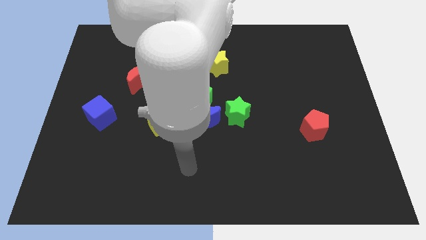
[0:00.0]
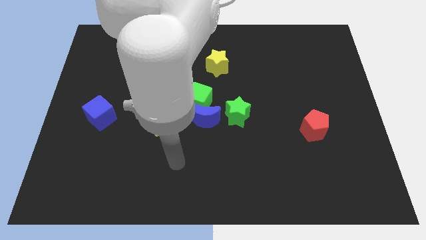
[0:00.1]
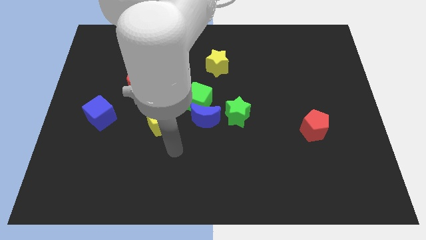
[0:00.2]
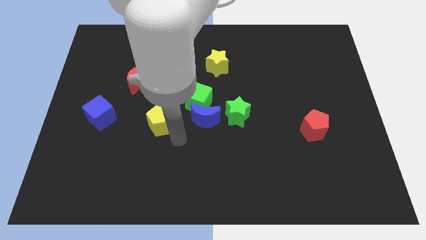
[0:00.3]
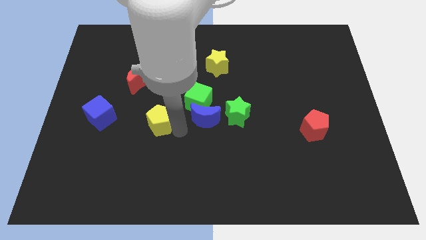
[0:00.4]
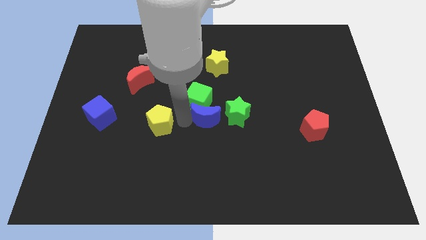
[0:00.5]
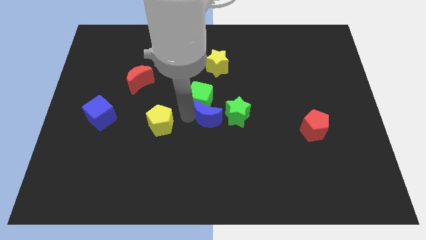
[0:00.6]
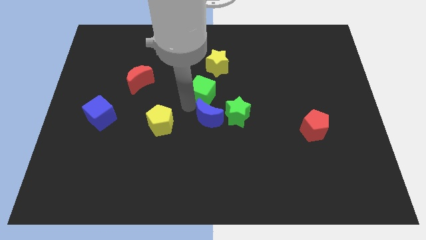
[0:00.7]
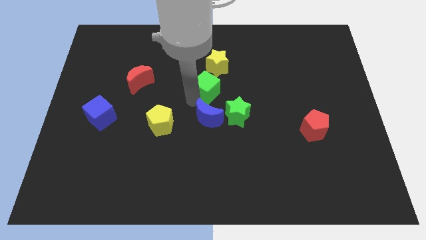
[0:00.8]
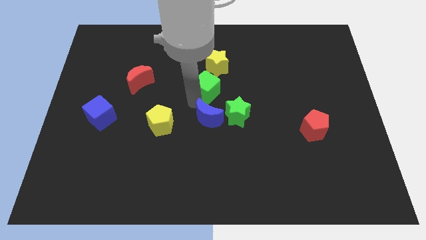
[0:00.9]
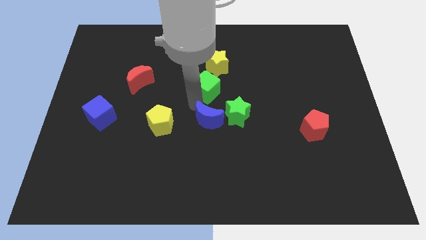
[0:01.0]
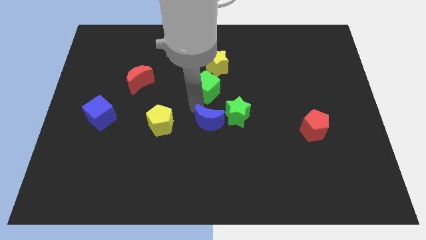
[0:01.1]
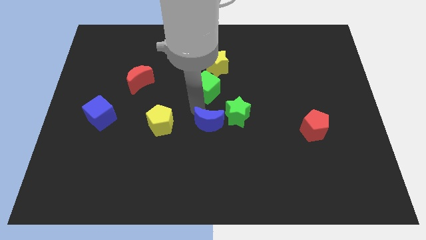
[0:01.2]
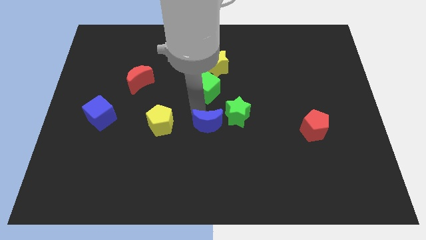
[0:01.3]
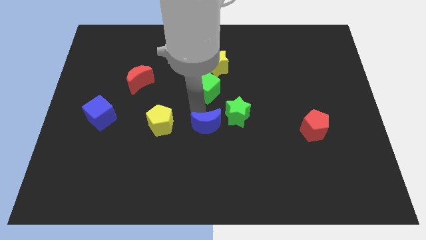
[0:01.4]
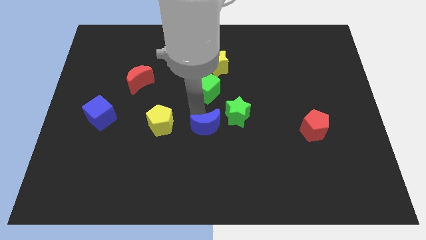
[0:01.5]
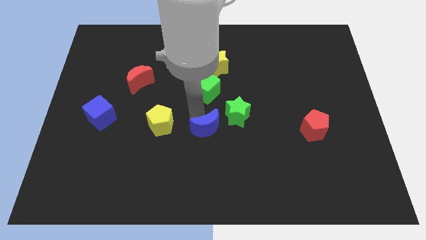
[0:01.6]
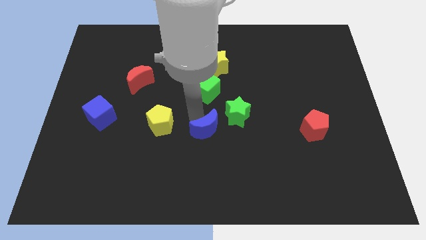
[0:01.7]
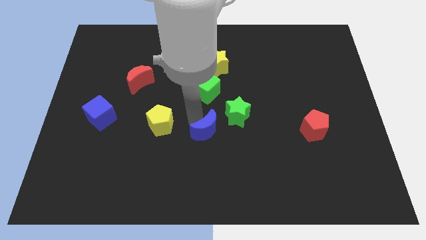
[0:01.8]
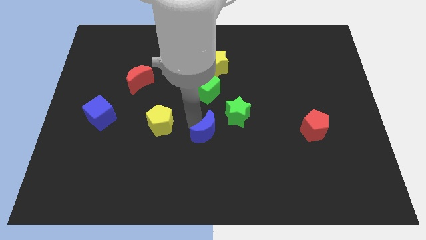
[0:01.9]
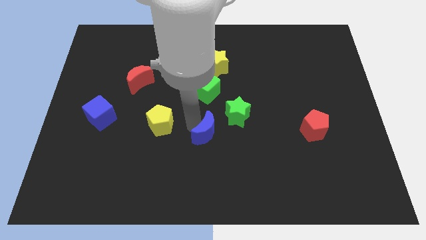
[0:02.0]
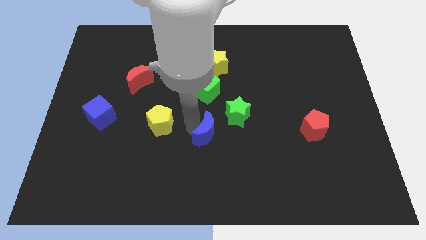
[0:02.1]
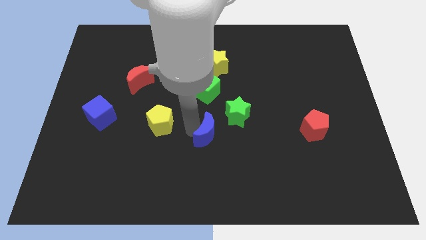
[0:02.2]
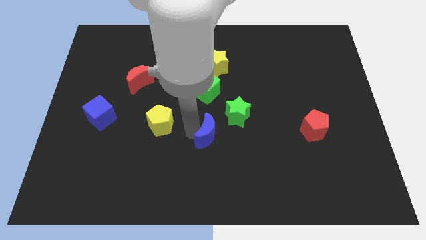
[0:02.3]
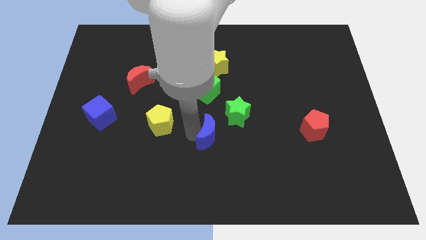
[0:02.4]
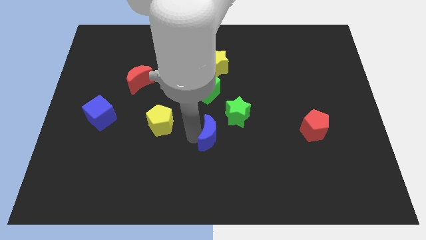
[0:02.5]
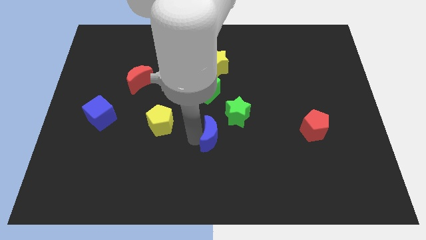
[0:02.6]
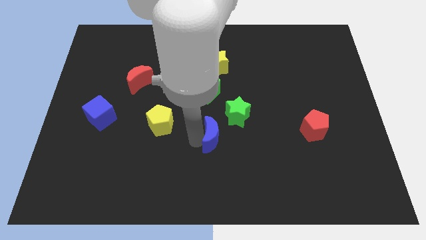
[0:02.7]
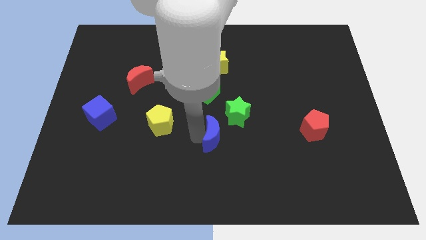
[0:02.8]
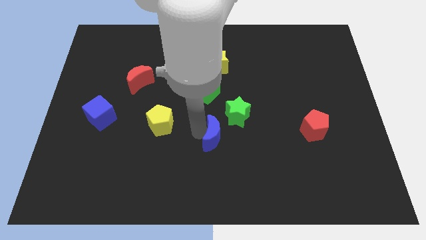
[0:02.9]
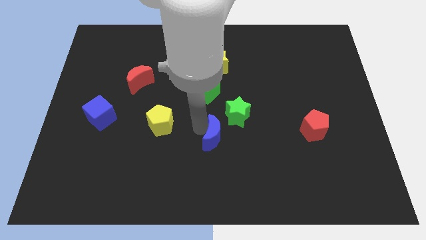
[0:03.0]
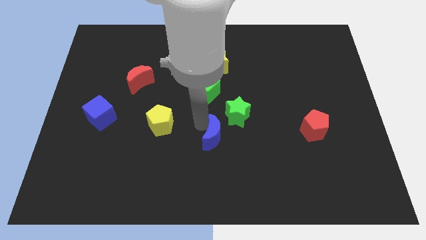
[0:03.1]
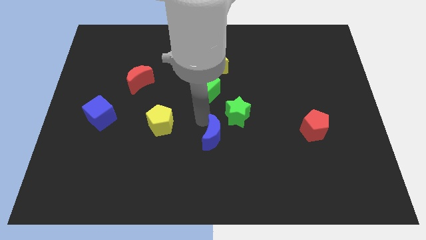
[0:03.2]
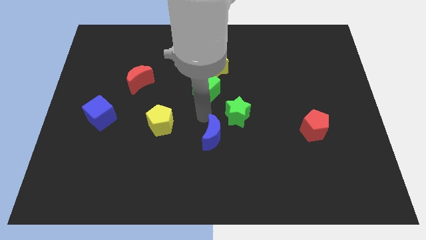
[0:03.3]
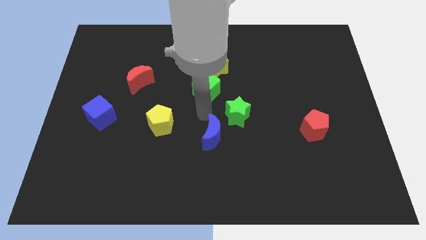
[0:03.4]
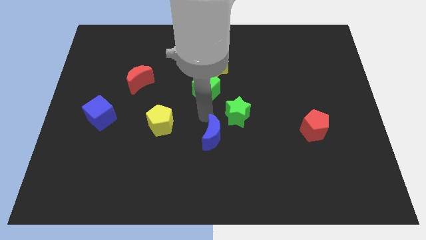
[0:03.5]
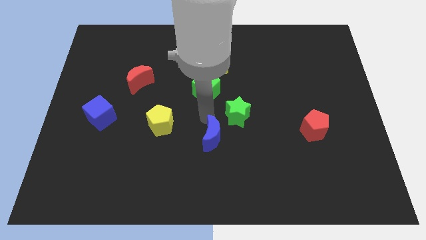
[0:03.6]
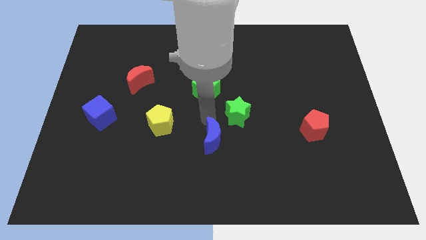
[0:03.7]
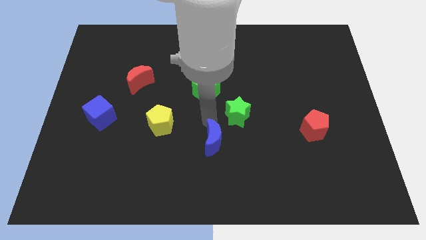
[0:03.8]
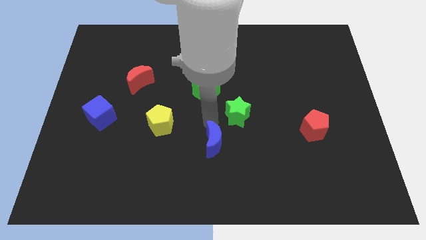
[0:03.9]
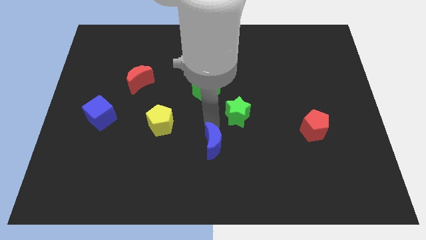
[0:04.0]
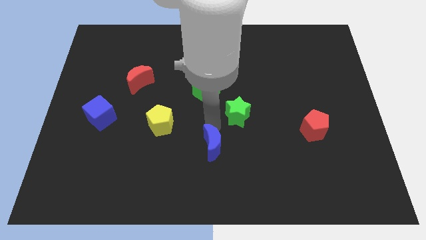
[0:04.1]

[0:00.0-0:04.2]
pull the blue moon apart from the group

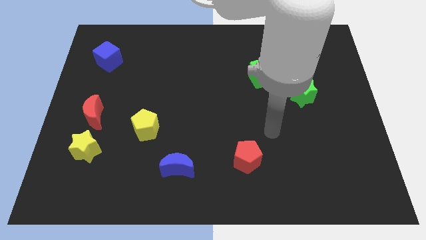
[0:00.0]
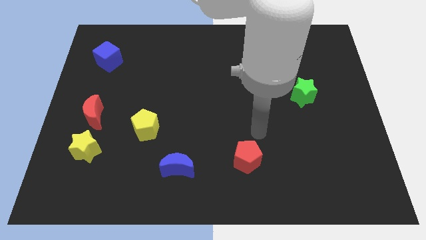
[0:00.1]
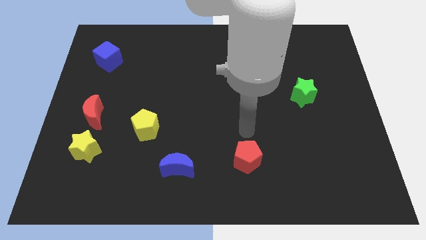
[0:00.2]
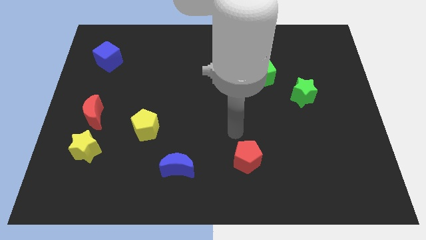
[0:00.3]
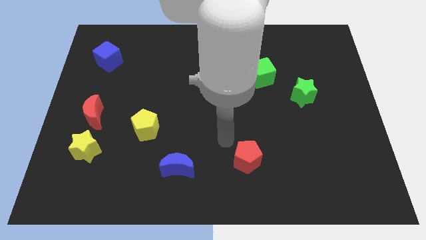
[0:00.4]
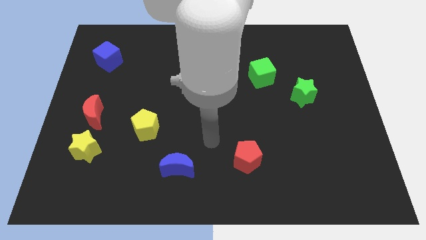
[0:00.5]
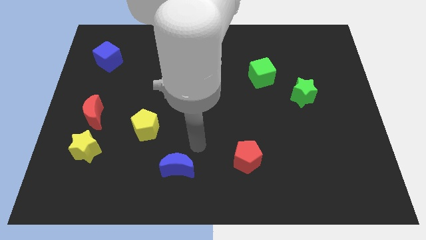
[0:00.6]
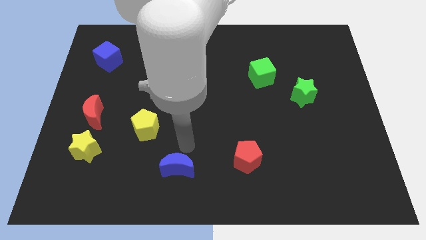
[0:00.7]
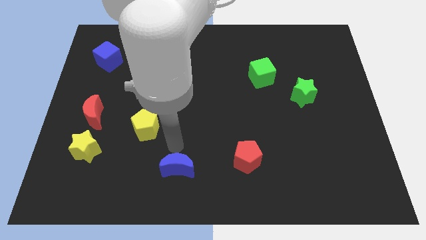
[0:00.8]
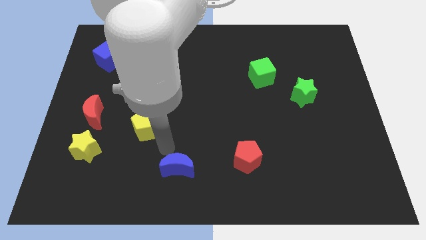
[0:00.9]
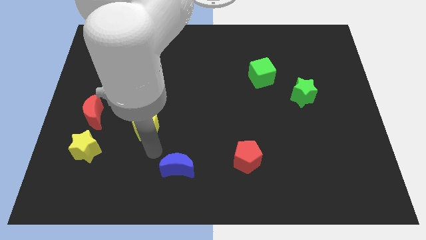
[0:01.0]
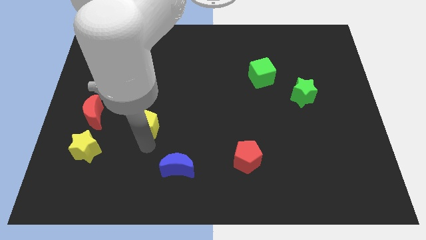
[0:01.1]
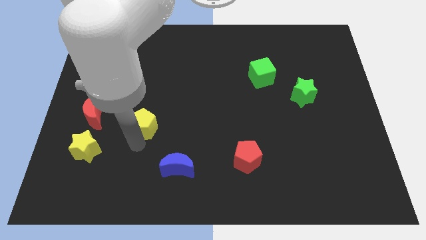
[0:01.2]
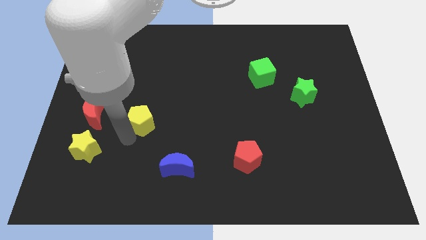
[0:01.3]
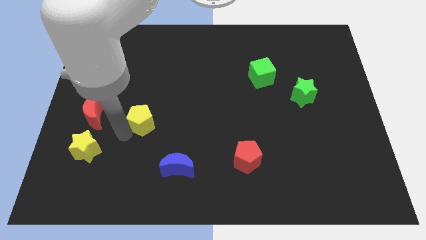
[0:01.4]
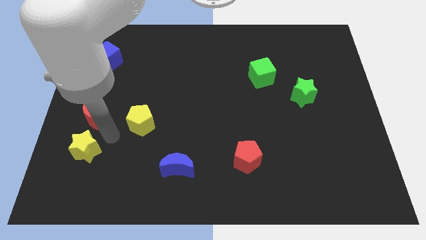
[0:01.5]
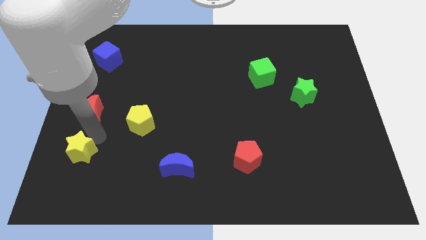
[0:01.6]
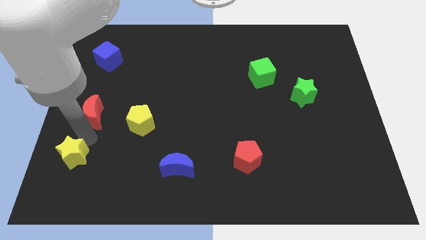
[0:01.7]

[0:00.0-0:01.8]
pull the red moon apart from the yellow star

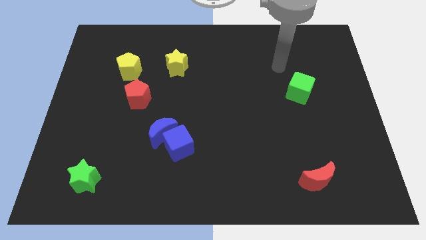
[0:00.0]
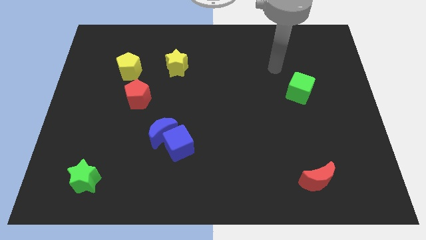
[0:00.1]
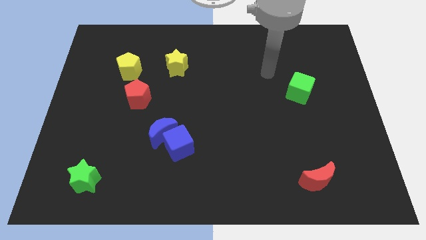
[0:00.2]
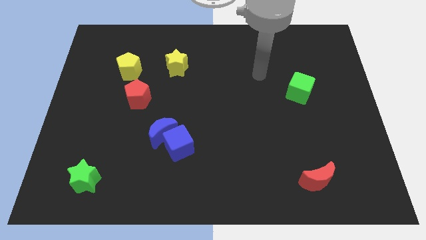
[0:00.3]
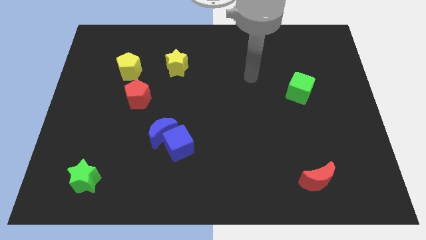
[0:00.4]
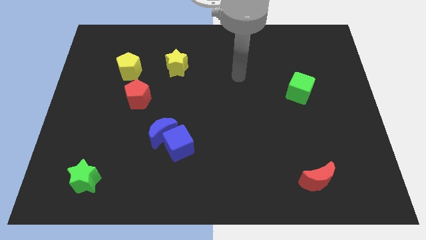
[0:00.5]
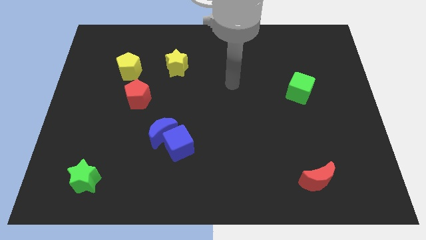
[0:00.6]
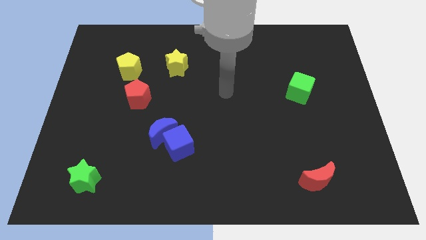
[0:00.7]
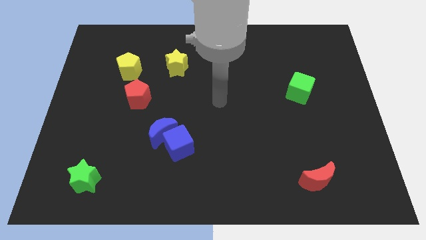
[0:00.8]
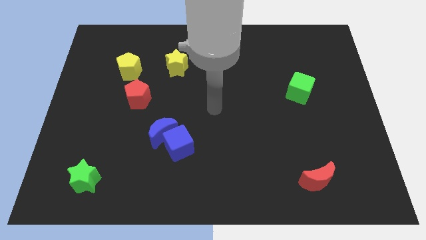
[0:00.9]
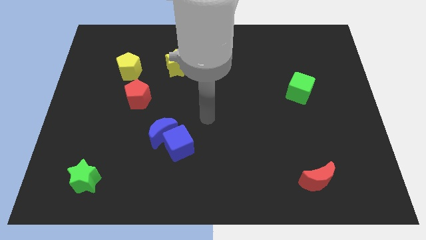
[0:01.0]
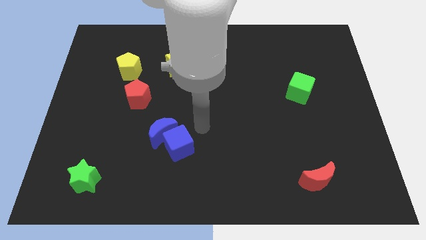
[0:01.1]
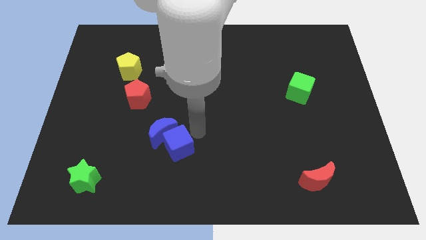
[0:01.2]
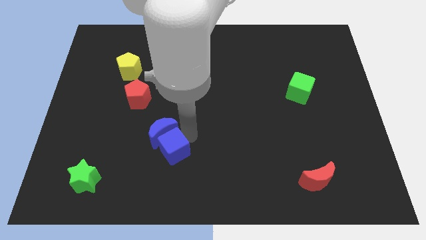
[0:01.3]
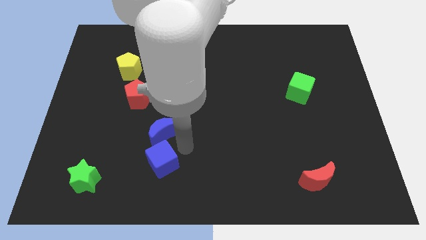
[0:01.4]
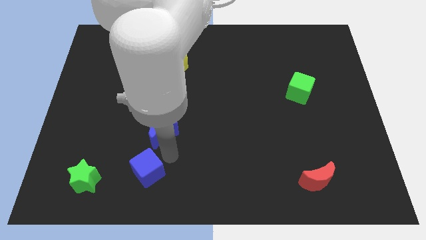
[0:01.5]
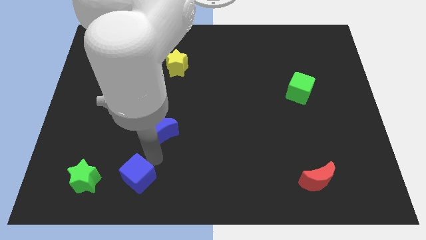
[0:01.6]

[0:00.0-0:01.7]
move the blue moon away from the blue cube

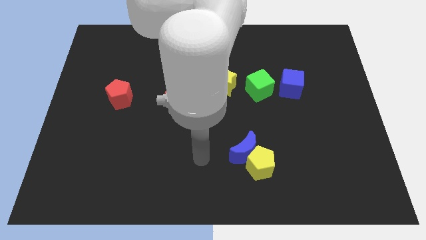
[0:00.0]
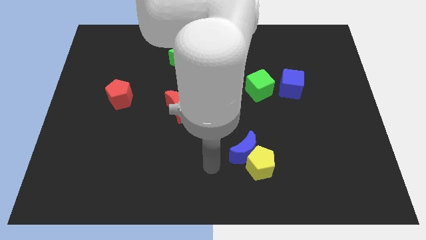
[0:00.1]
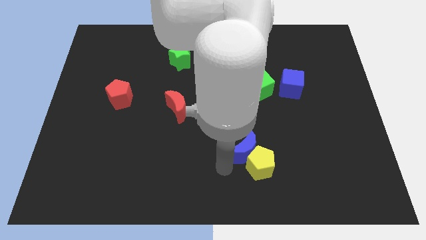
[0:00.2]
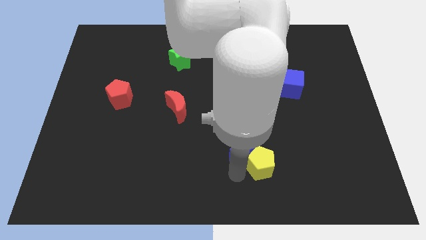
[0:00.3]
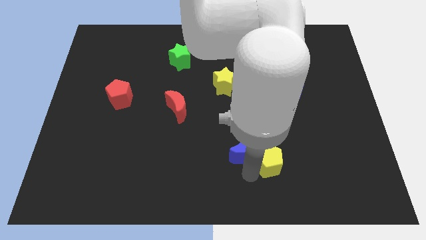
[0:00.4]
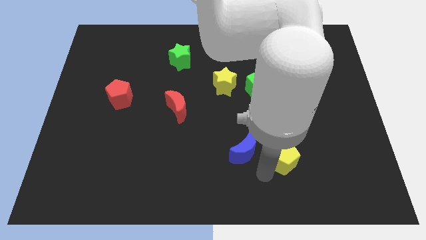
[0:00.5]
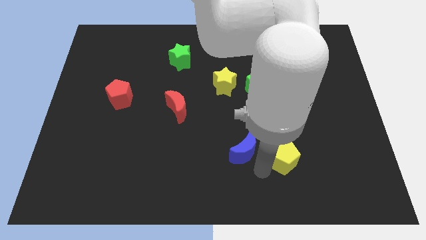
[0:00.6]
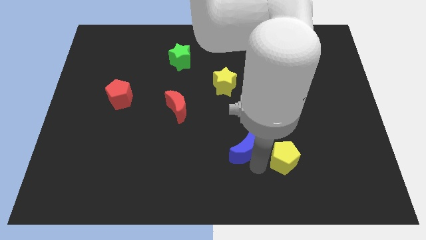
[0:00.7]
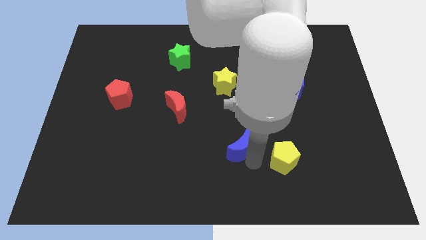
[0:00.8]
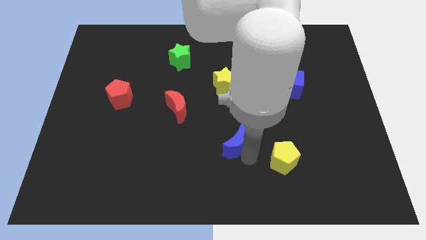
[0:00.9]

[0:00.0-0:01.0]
move the blue moon away from the yellow pentagon

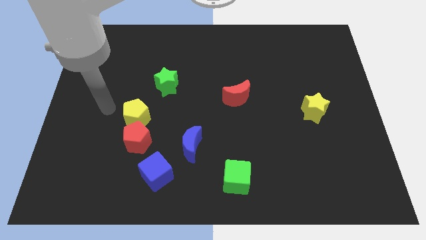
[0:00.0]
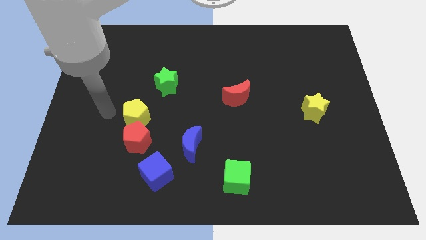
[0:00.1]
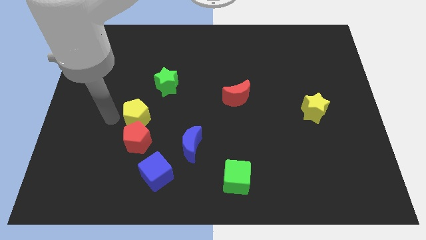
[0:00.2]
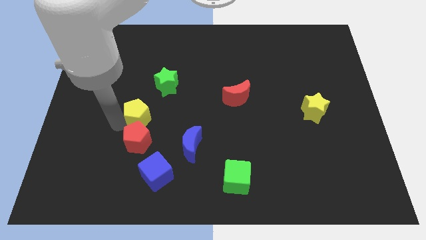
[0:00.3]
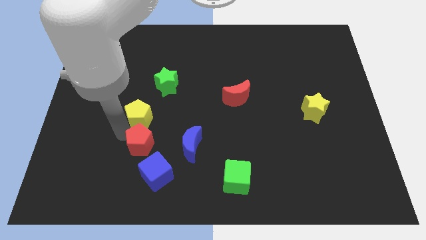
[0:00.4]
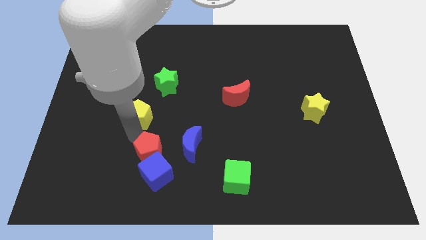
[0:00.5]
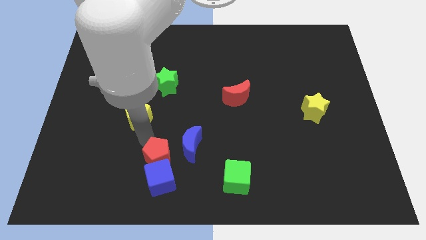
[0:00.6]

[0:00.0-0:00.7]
pull the yellow pentagon apart from the red pentagon
